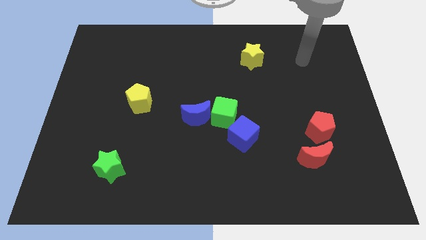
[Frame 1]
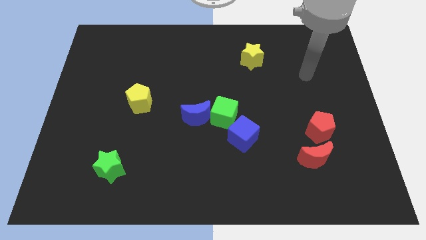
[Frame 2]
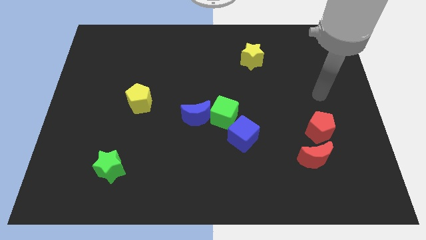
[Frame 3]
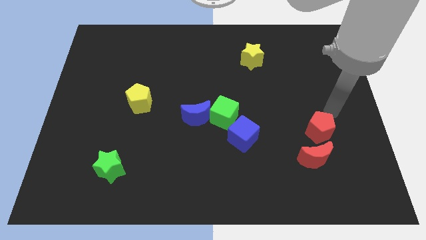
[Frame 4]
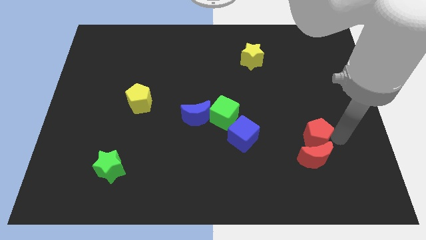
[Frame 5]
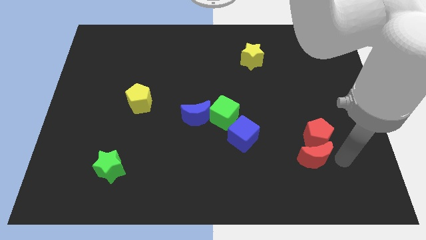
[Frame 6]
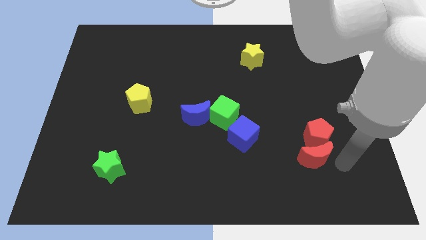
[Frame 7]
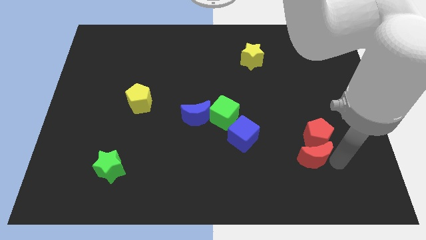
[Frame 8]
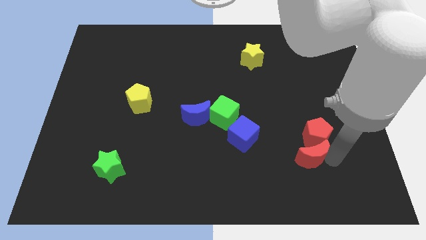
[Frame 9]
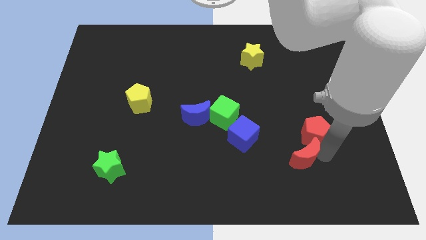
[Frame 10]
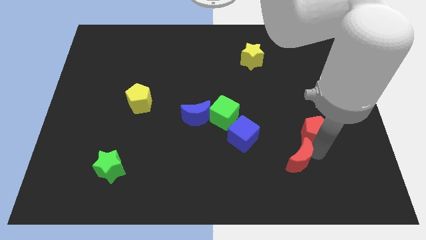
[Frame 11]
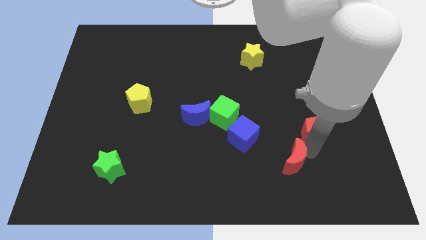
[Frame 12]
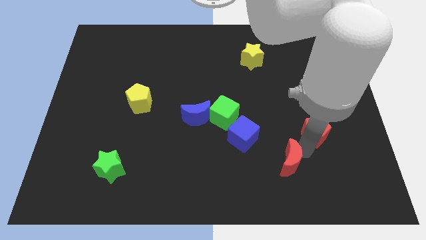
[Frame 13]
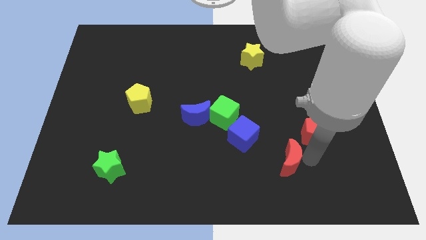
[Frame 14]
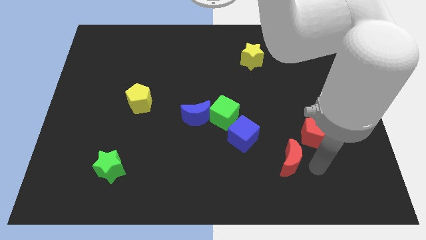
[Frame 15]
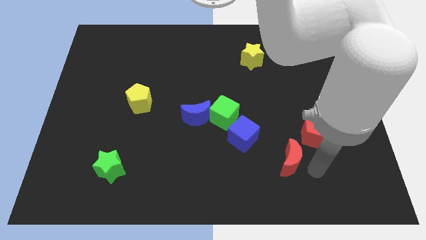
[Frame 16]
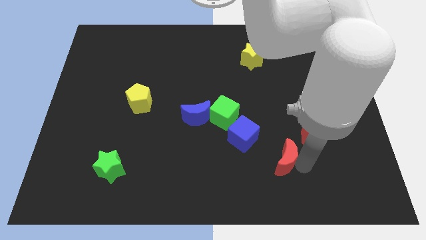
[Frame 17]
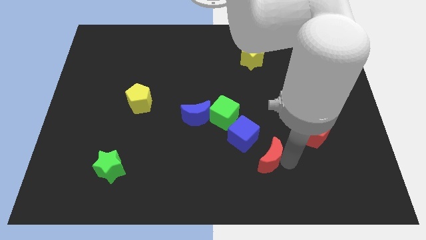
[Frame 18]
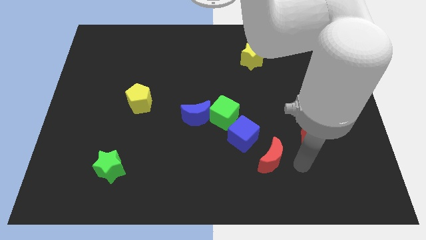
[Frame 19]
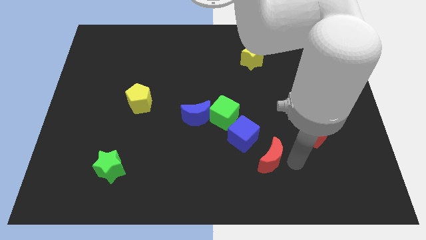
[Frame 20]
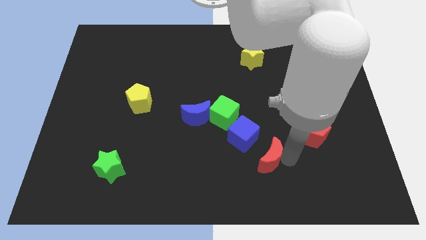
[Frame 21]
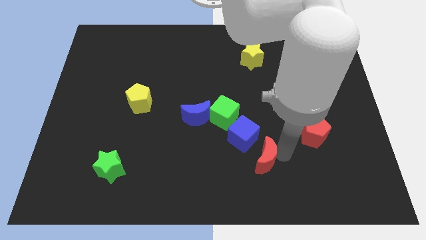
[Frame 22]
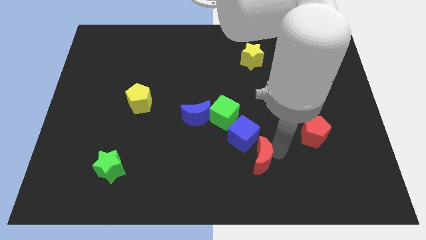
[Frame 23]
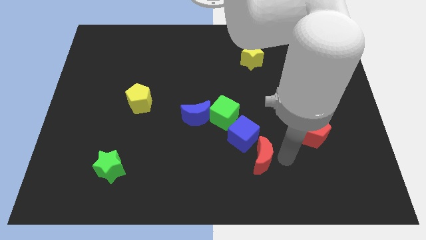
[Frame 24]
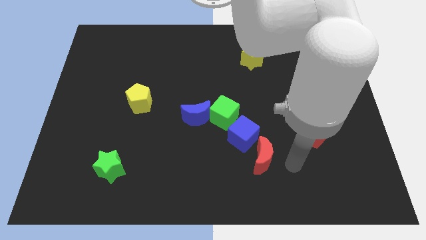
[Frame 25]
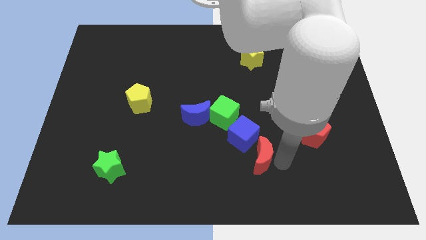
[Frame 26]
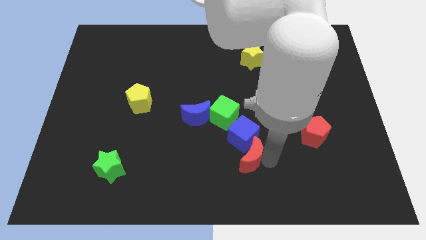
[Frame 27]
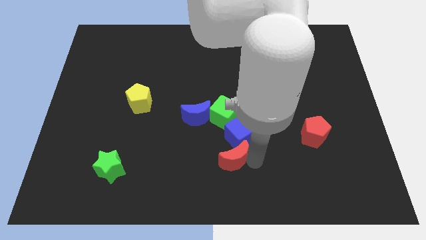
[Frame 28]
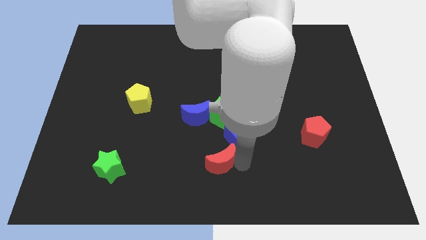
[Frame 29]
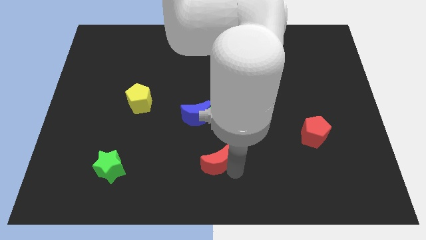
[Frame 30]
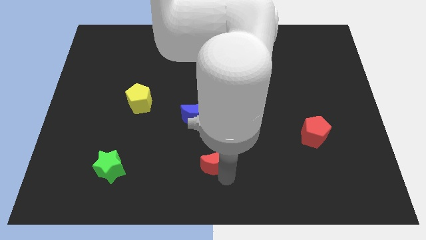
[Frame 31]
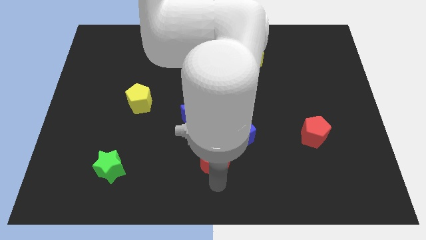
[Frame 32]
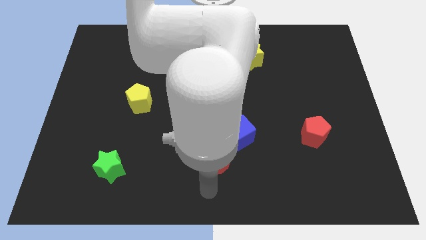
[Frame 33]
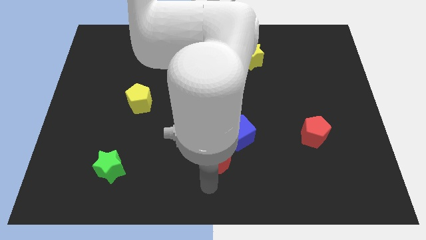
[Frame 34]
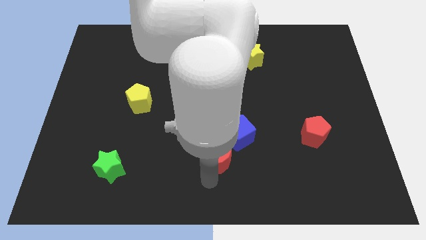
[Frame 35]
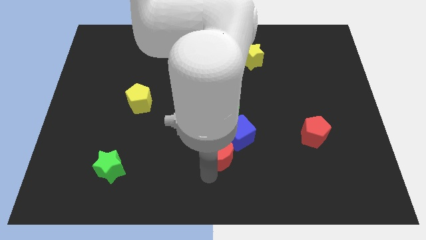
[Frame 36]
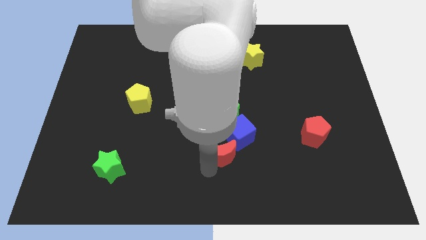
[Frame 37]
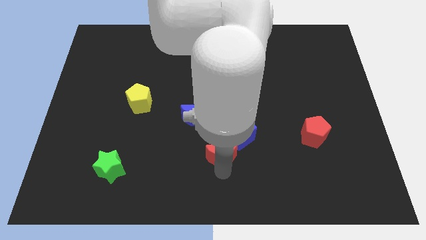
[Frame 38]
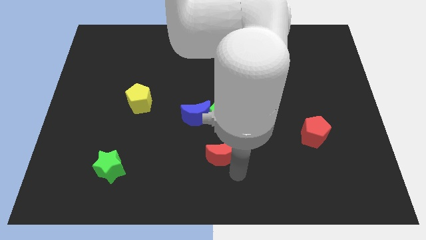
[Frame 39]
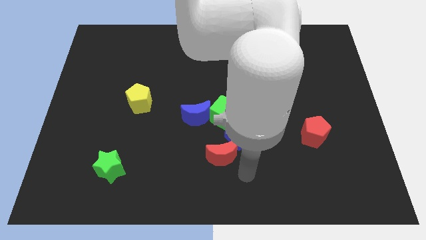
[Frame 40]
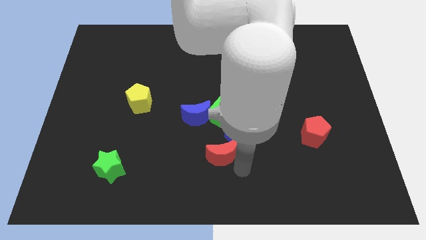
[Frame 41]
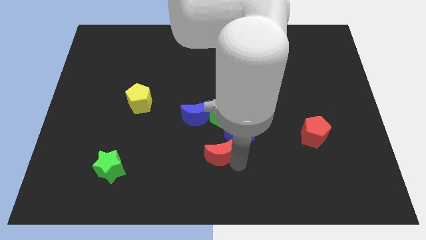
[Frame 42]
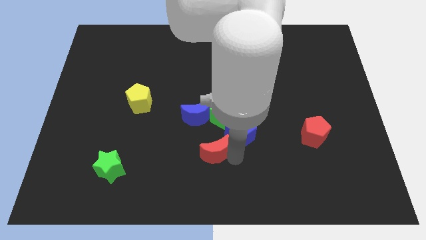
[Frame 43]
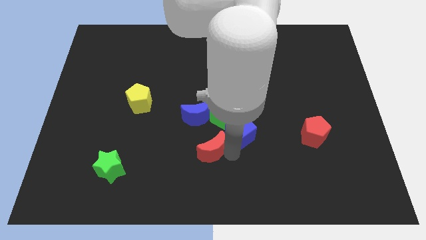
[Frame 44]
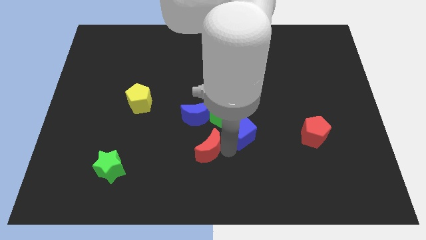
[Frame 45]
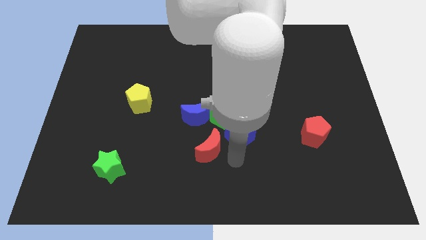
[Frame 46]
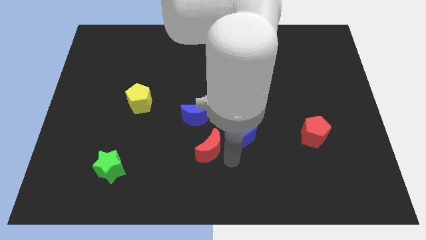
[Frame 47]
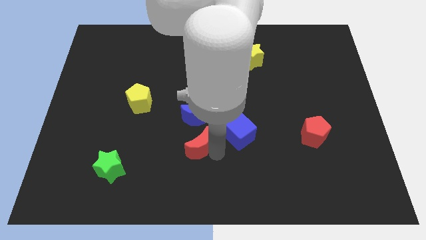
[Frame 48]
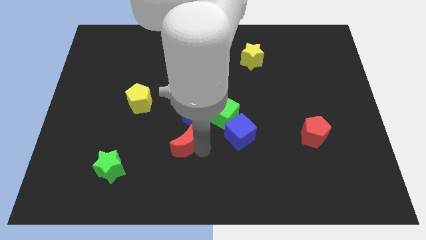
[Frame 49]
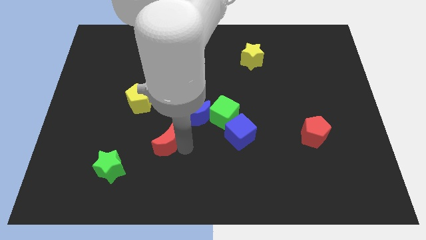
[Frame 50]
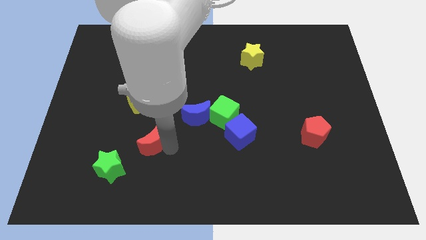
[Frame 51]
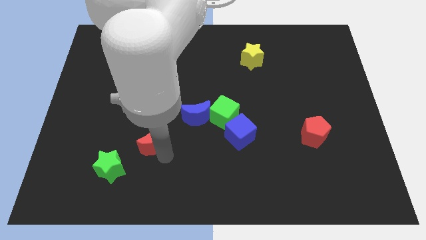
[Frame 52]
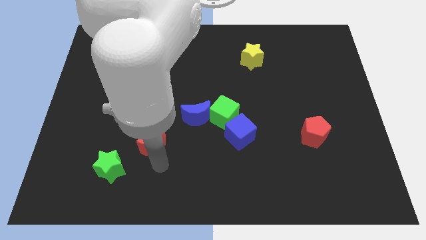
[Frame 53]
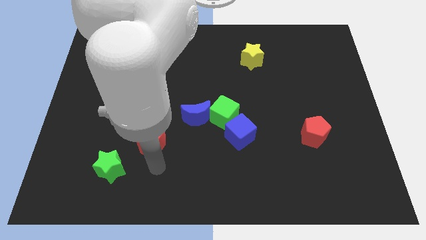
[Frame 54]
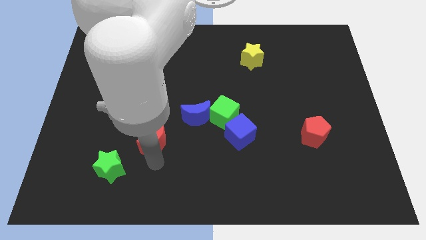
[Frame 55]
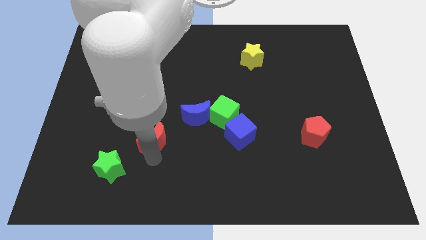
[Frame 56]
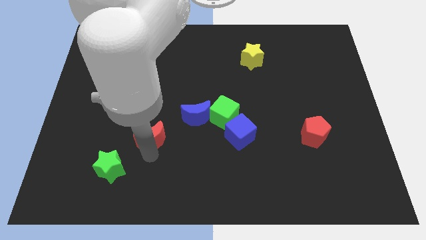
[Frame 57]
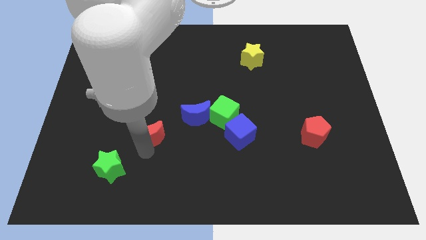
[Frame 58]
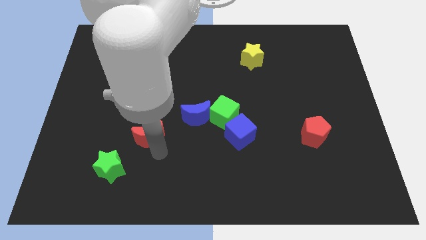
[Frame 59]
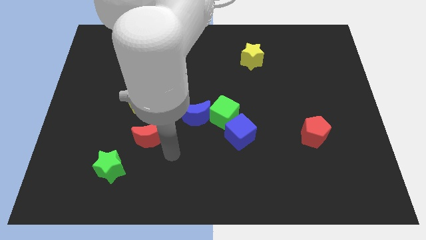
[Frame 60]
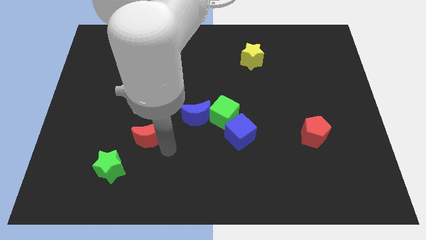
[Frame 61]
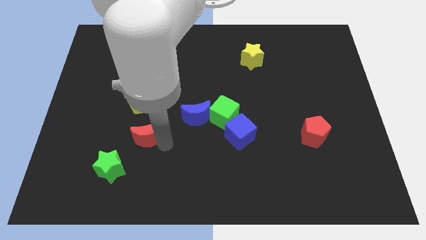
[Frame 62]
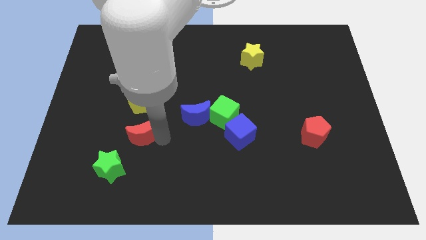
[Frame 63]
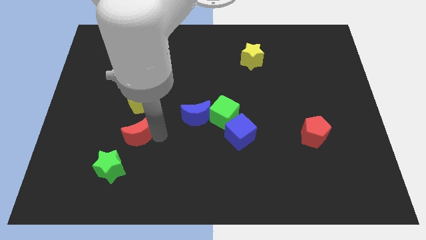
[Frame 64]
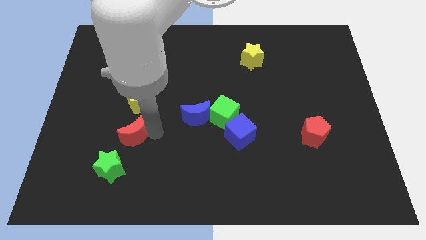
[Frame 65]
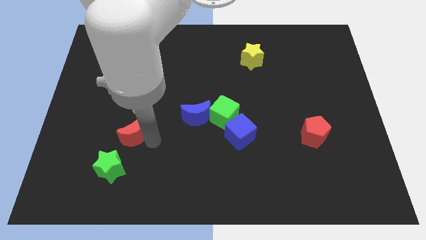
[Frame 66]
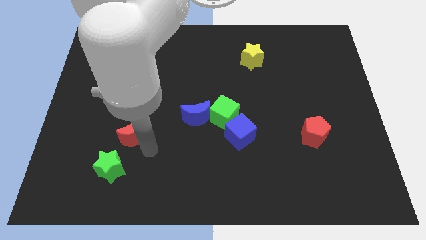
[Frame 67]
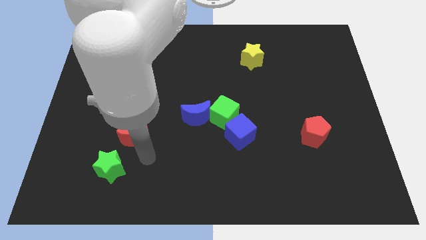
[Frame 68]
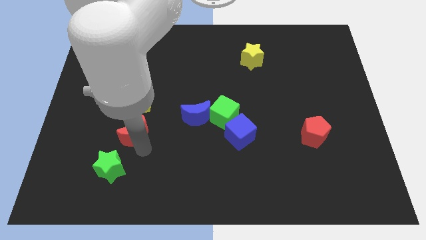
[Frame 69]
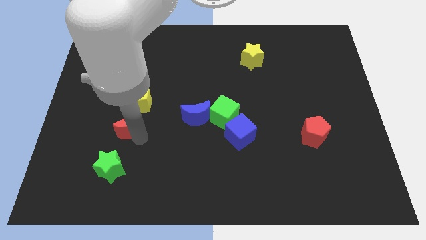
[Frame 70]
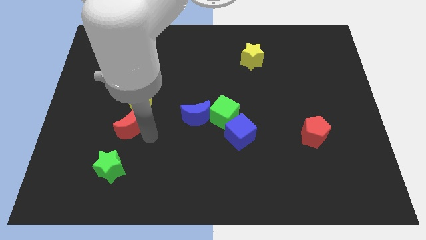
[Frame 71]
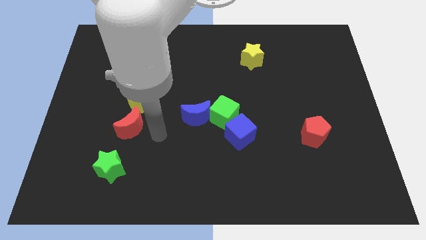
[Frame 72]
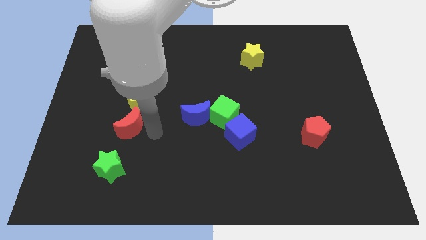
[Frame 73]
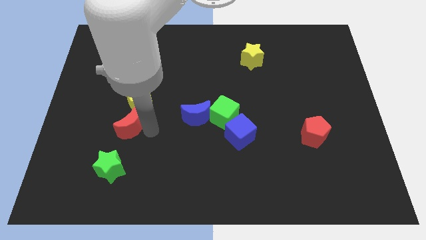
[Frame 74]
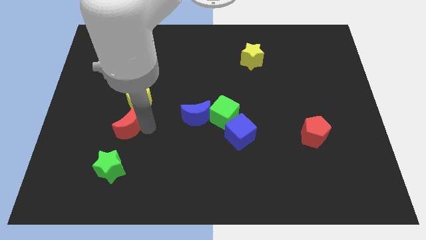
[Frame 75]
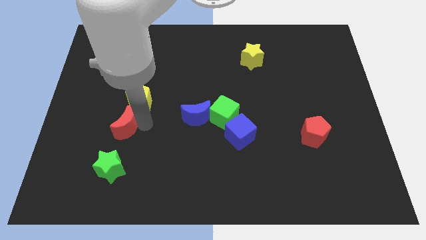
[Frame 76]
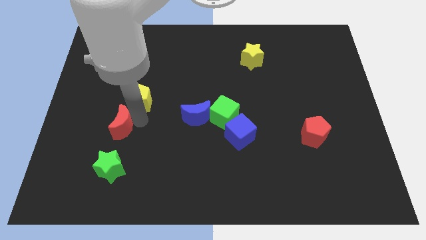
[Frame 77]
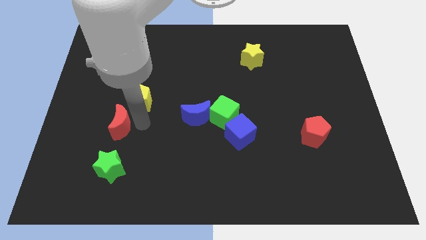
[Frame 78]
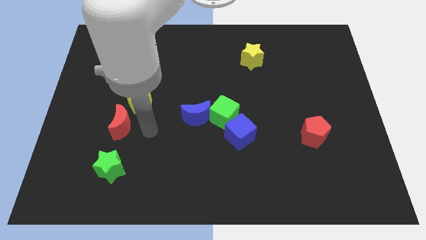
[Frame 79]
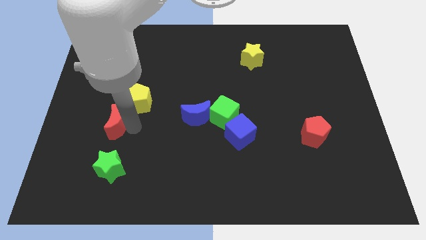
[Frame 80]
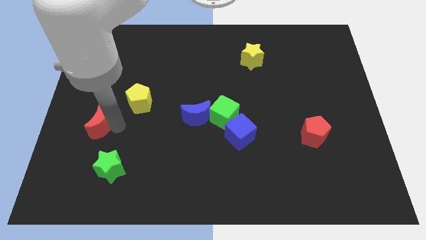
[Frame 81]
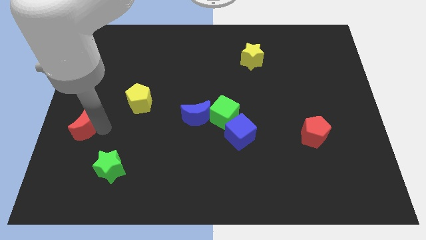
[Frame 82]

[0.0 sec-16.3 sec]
put the red moon to the left side
